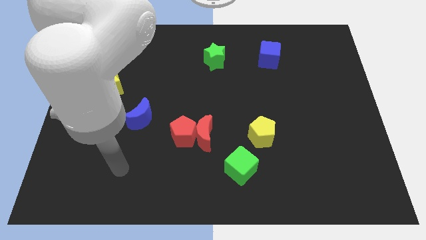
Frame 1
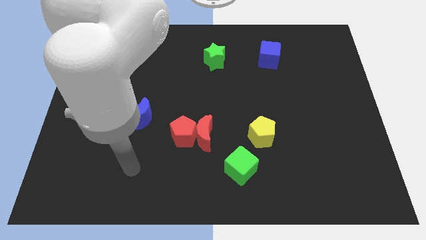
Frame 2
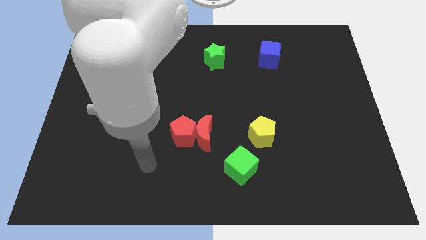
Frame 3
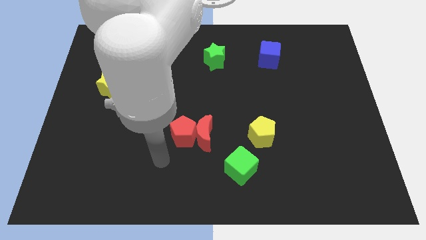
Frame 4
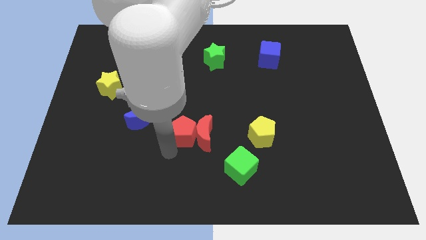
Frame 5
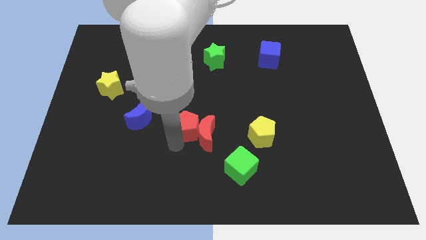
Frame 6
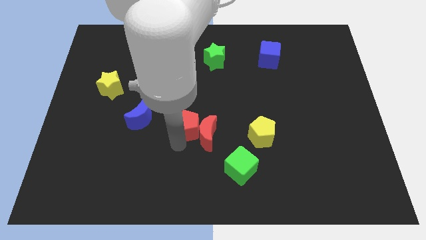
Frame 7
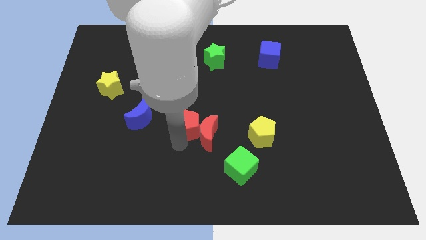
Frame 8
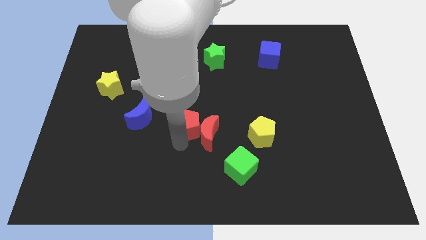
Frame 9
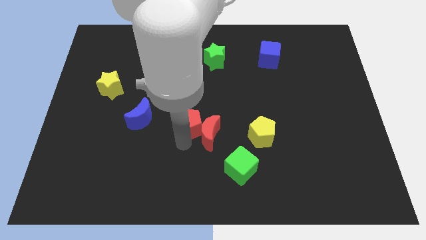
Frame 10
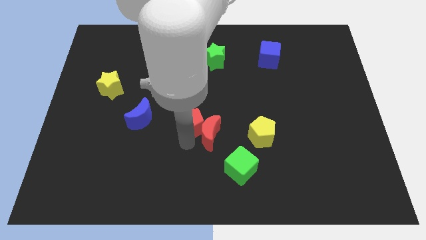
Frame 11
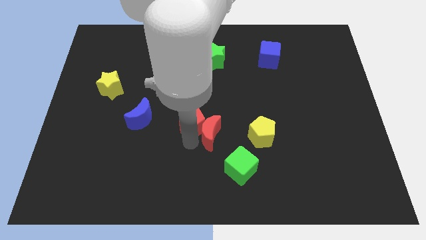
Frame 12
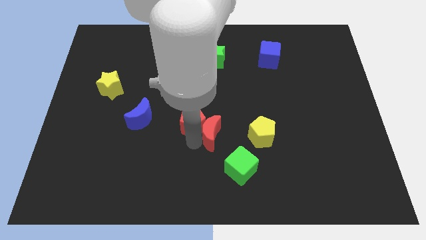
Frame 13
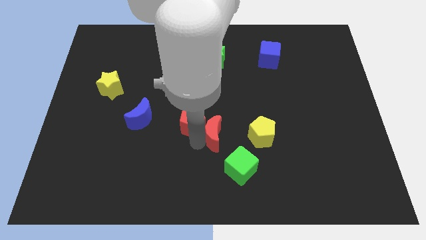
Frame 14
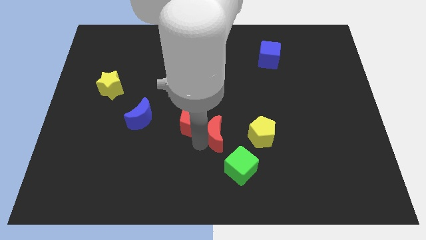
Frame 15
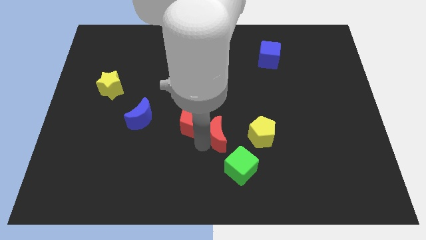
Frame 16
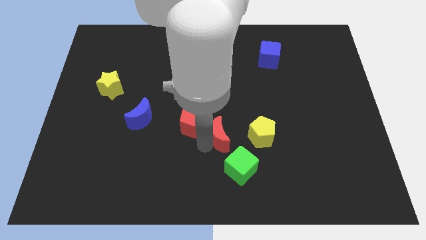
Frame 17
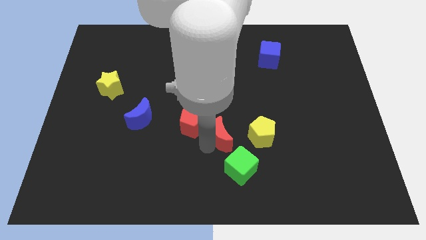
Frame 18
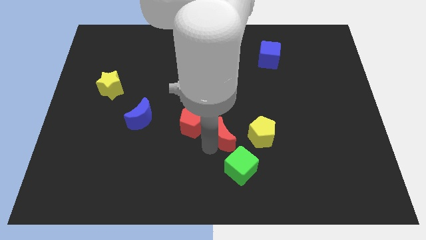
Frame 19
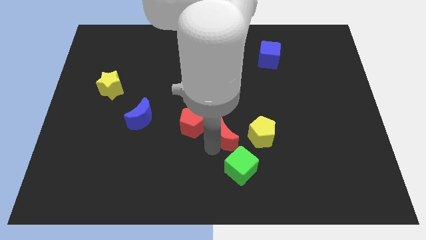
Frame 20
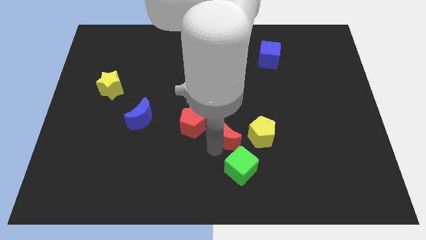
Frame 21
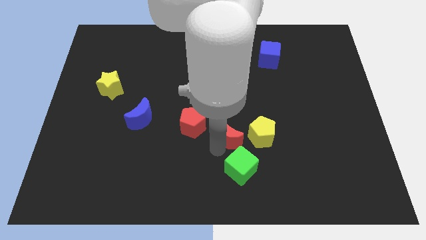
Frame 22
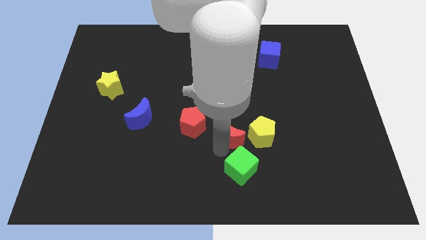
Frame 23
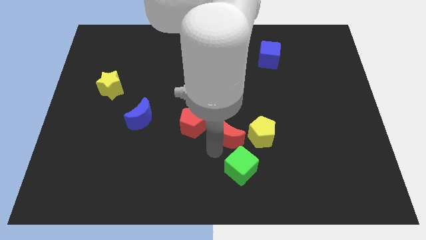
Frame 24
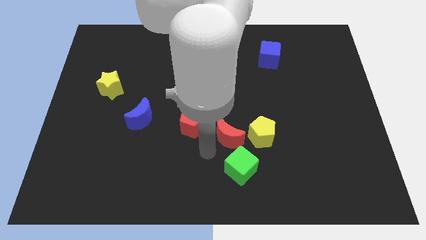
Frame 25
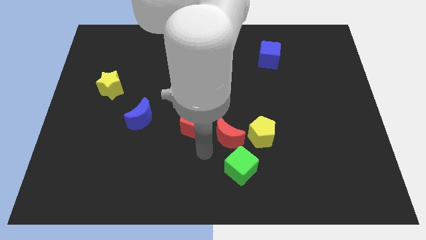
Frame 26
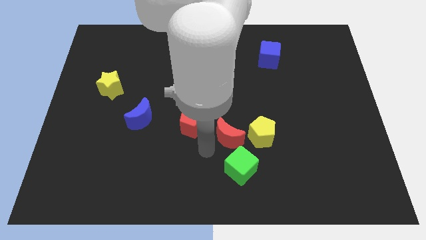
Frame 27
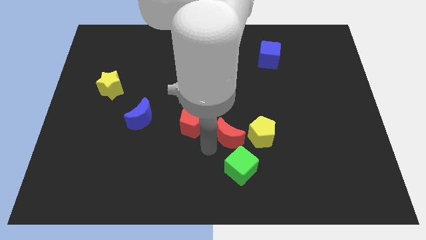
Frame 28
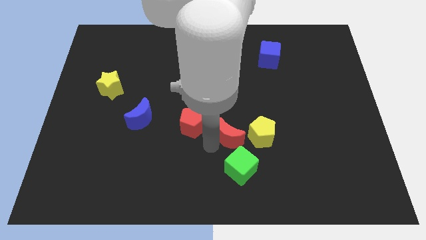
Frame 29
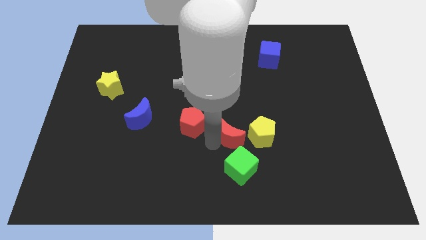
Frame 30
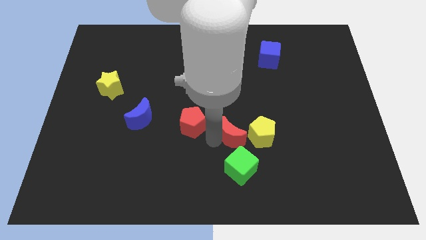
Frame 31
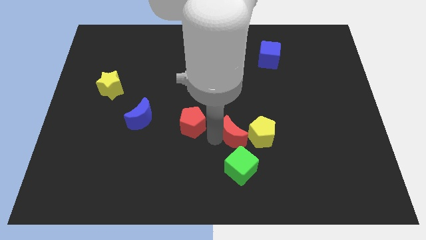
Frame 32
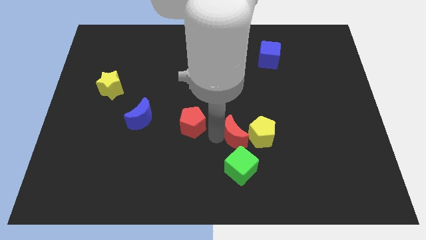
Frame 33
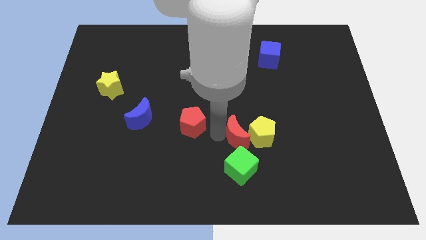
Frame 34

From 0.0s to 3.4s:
move the red moon away from the red pentagon

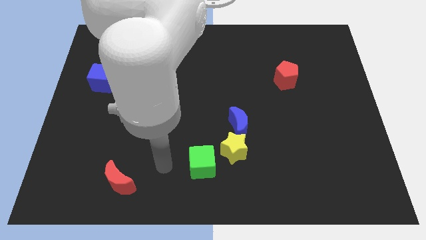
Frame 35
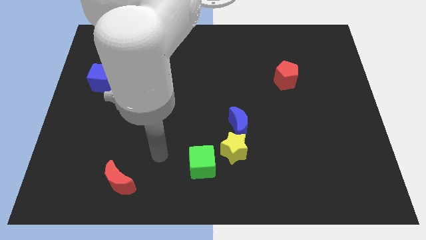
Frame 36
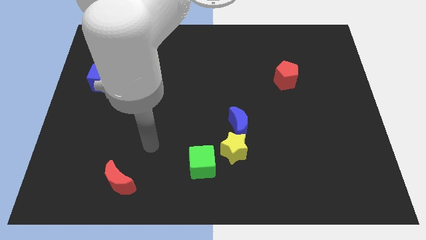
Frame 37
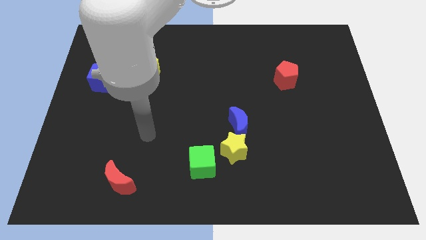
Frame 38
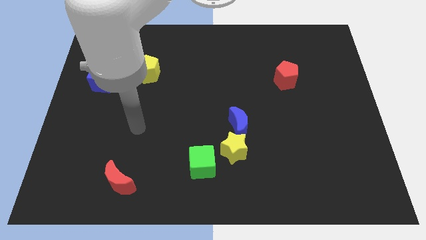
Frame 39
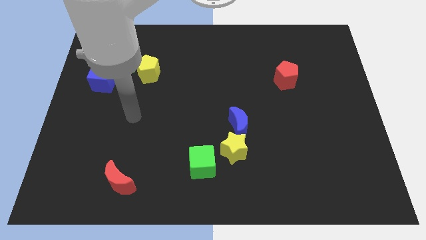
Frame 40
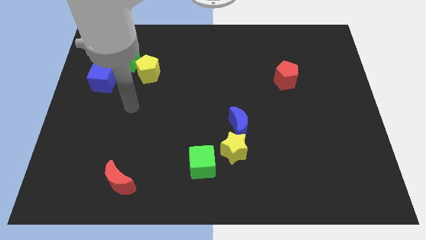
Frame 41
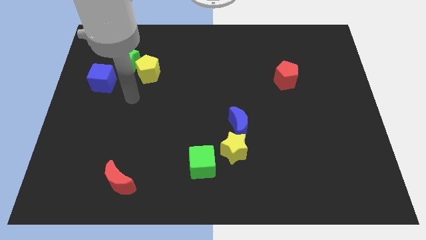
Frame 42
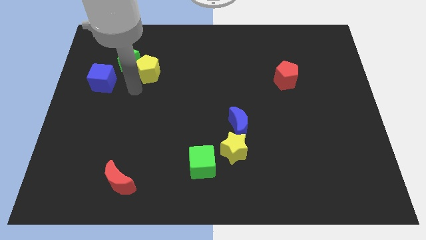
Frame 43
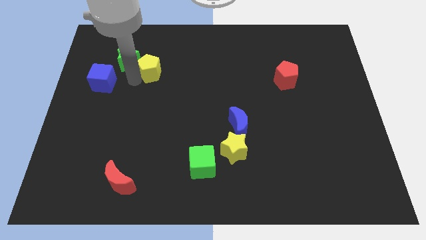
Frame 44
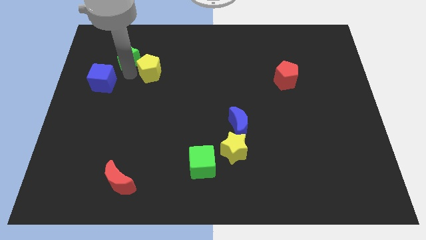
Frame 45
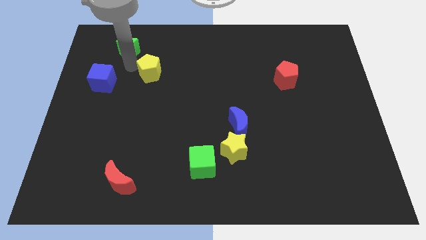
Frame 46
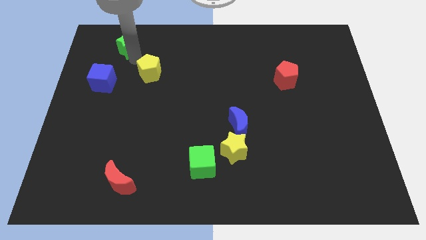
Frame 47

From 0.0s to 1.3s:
pull the yellow pentagon apart from the green star

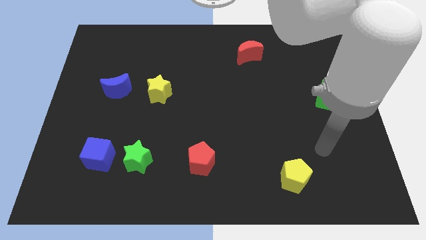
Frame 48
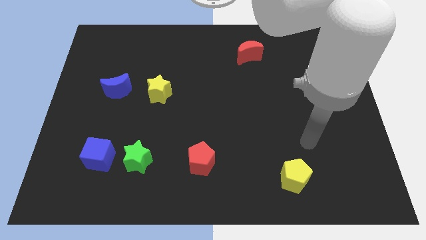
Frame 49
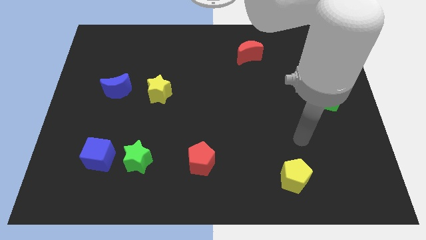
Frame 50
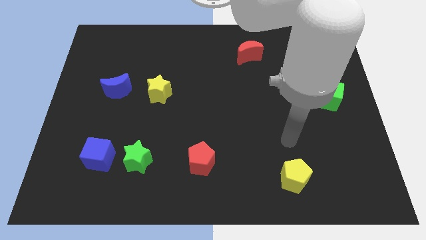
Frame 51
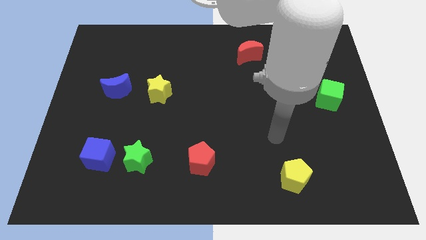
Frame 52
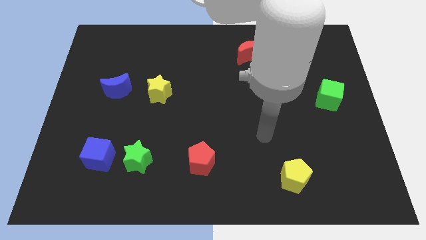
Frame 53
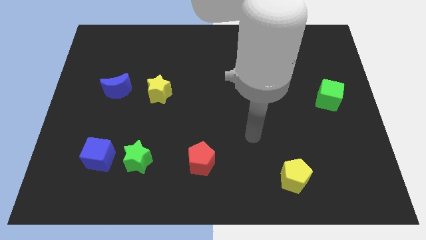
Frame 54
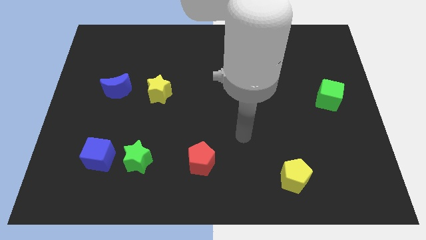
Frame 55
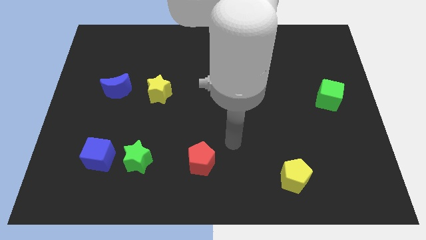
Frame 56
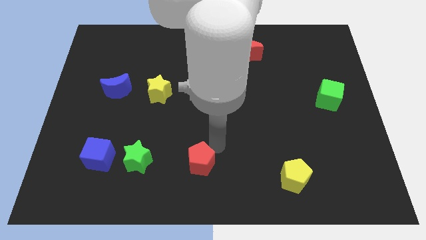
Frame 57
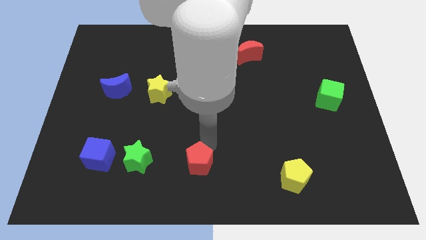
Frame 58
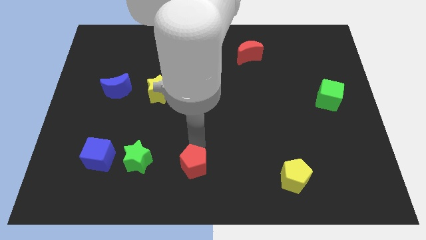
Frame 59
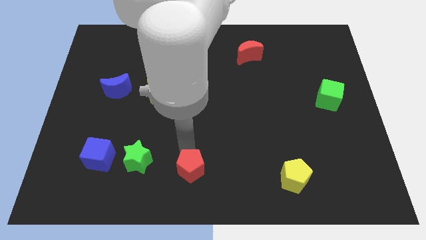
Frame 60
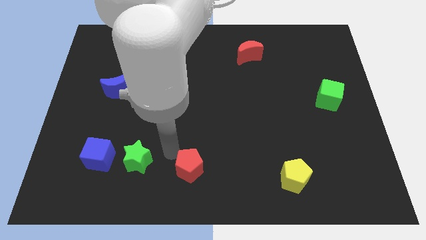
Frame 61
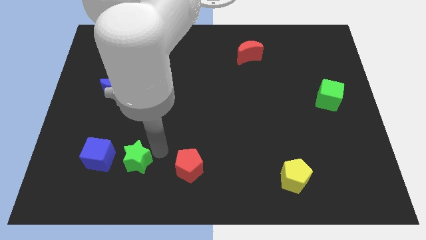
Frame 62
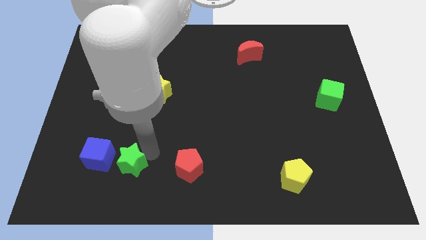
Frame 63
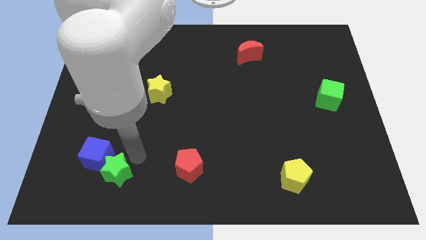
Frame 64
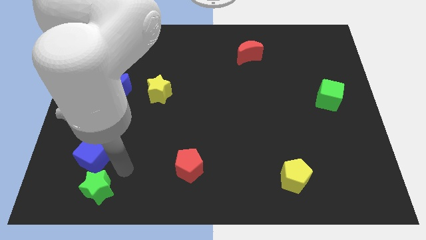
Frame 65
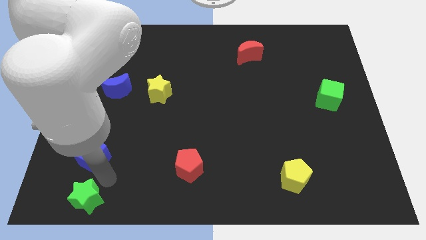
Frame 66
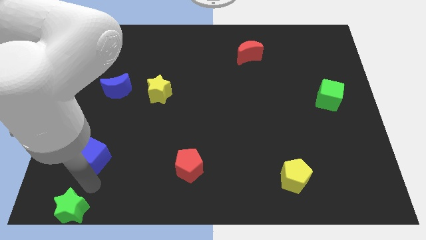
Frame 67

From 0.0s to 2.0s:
pull the blue cube apart from the green star

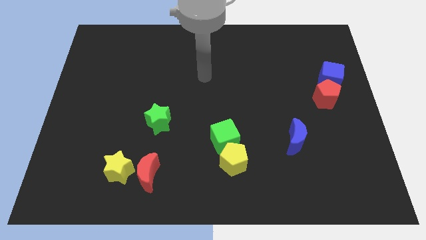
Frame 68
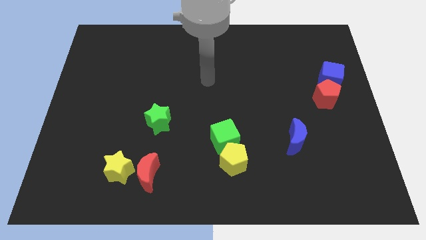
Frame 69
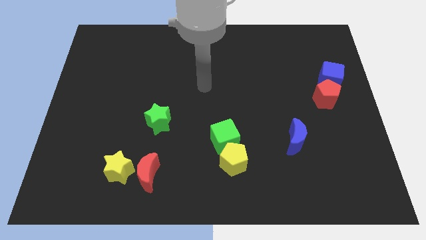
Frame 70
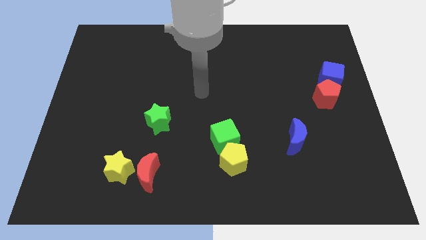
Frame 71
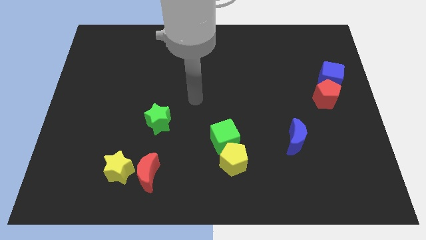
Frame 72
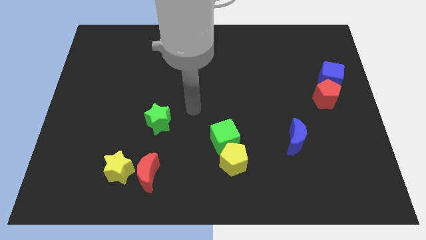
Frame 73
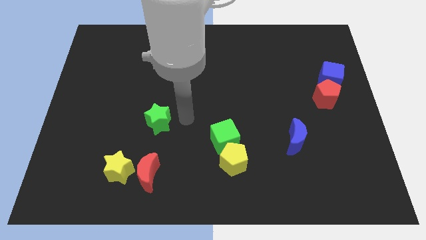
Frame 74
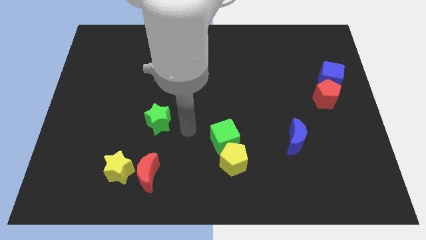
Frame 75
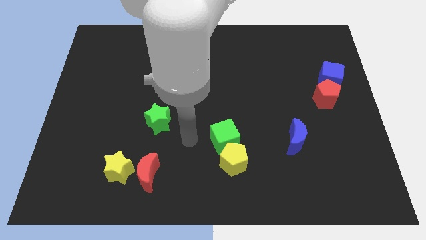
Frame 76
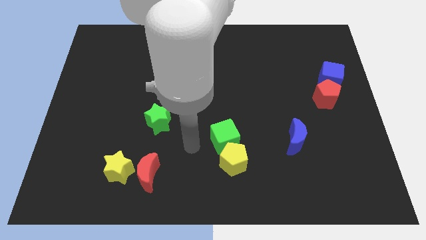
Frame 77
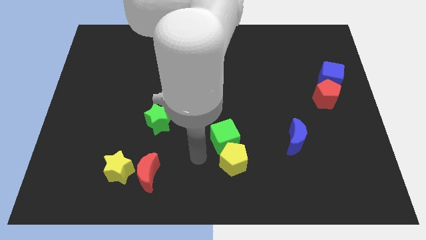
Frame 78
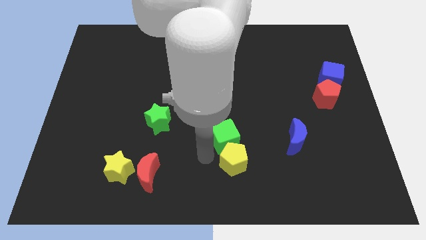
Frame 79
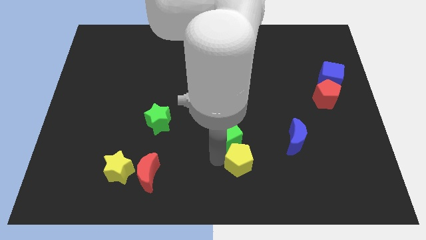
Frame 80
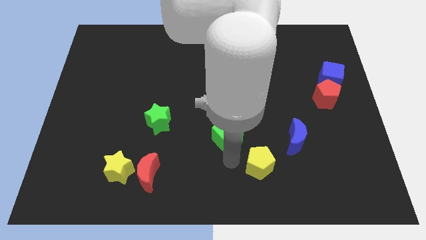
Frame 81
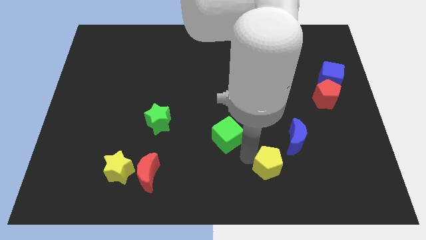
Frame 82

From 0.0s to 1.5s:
pull the green cube apart from the yellow pentagon

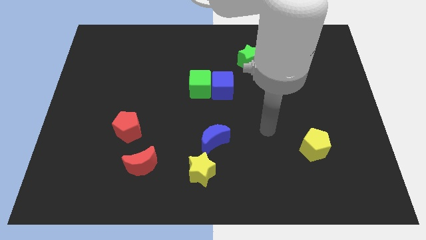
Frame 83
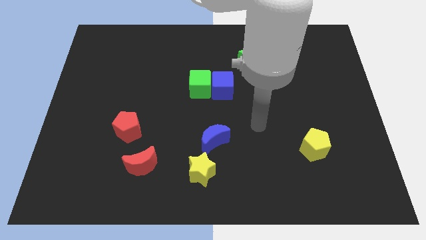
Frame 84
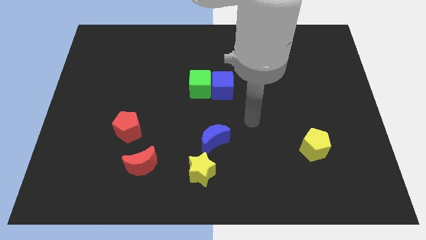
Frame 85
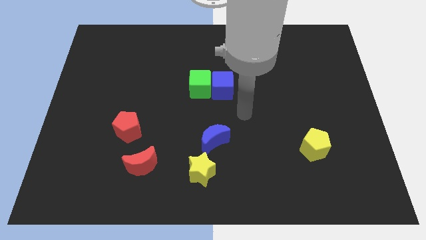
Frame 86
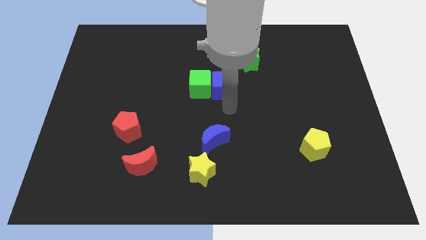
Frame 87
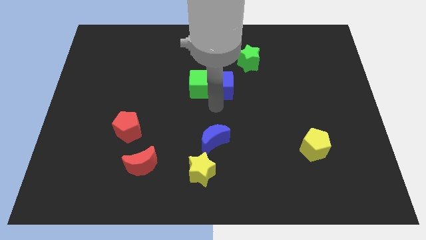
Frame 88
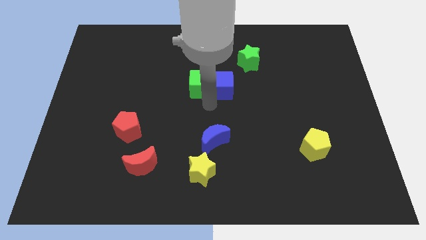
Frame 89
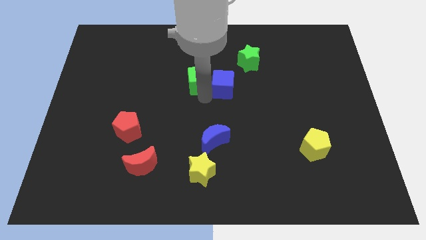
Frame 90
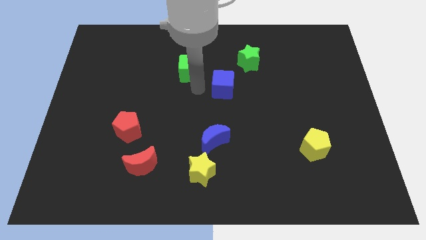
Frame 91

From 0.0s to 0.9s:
move the blue cube away from the green cube

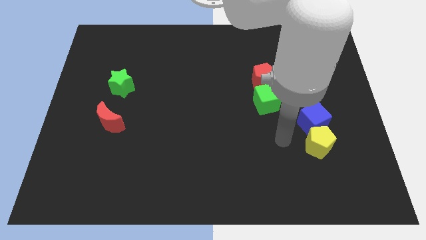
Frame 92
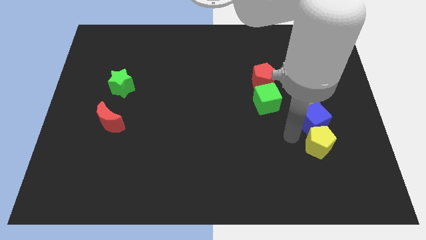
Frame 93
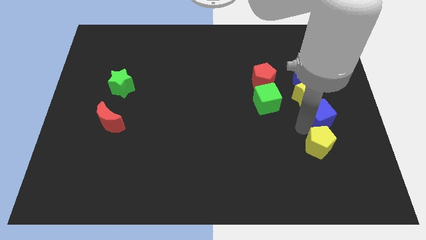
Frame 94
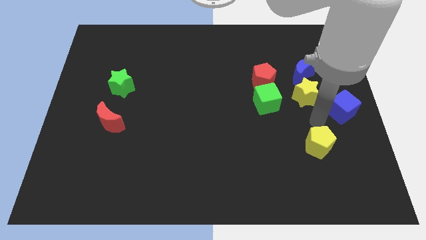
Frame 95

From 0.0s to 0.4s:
pull the yellow pentagon apart from the blue cube
